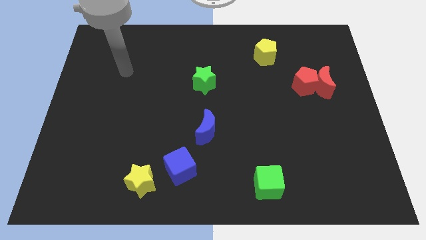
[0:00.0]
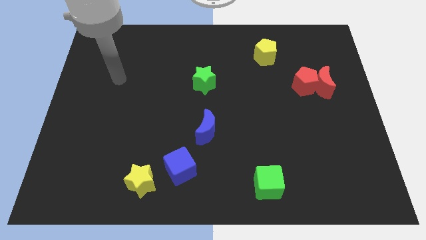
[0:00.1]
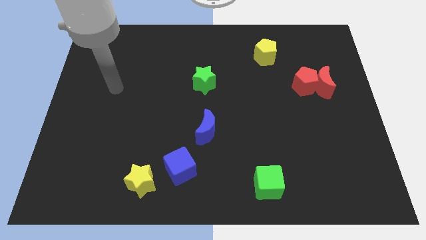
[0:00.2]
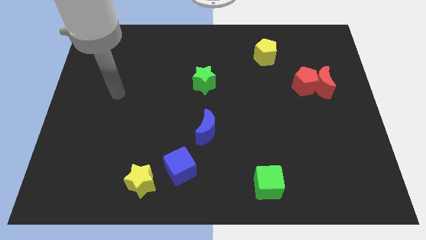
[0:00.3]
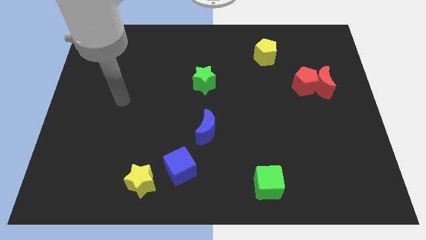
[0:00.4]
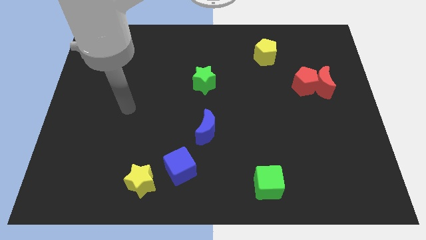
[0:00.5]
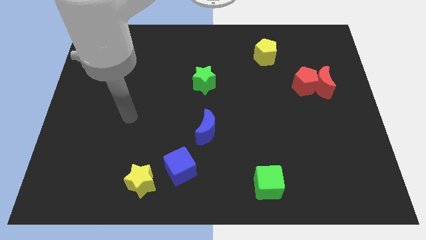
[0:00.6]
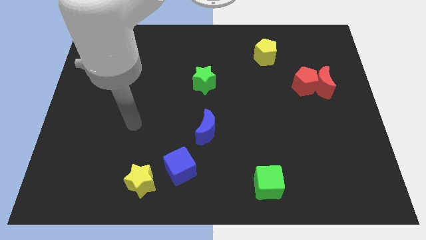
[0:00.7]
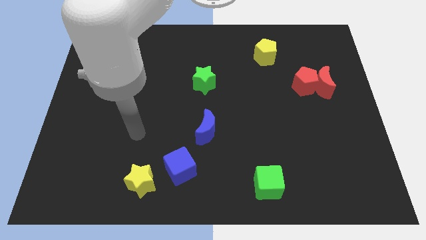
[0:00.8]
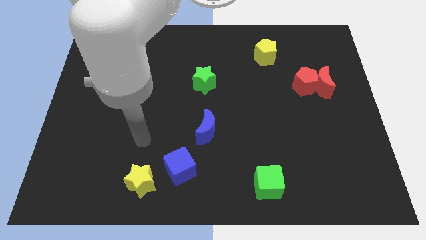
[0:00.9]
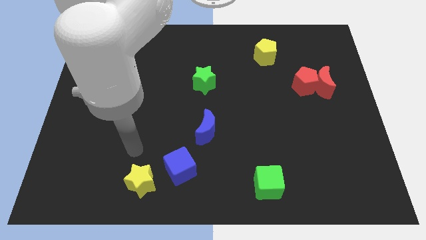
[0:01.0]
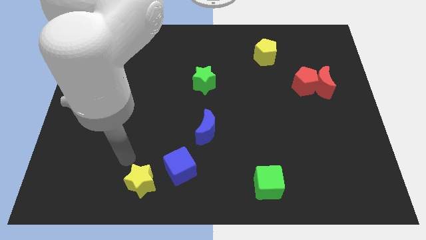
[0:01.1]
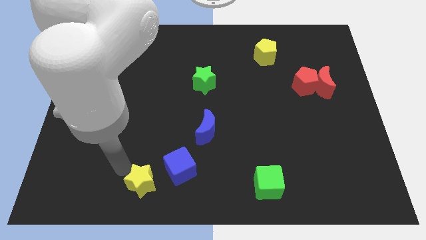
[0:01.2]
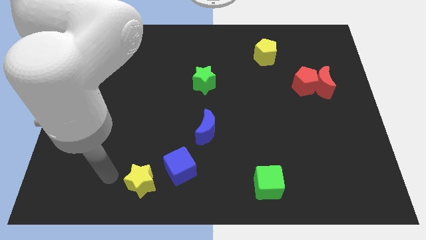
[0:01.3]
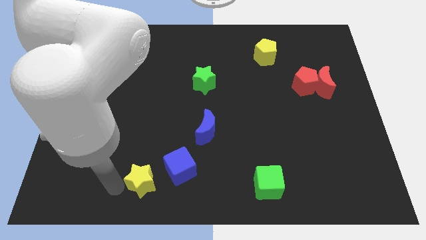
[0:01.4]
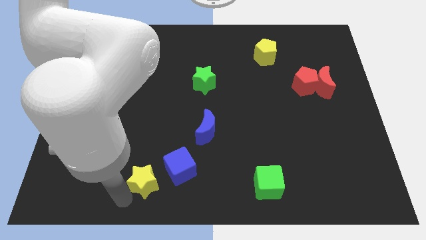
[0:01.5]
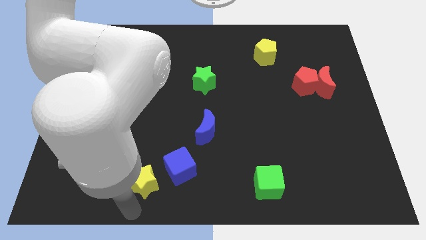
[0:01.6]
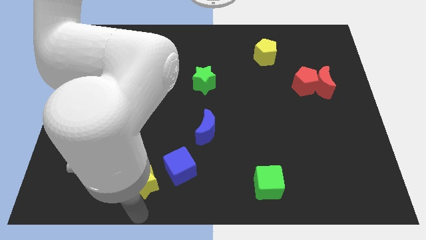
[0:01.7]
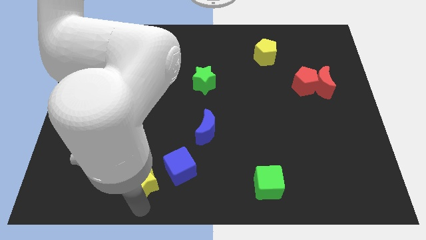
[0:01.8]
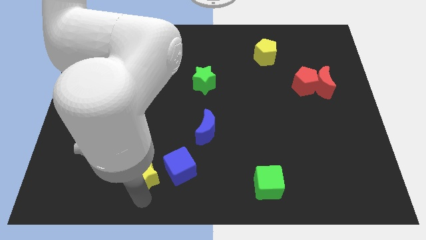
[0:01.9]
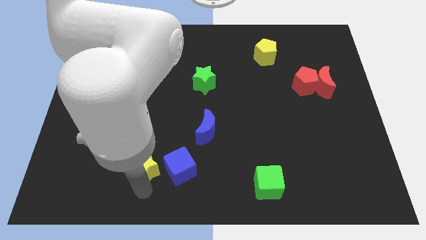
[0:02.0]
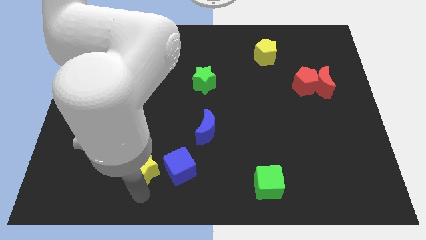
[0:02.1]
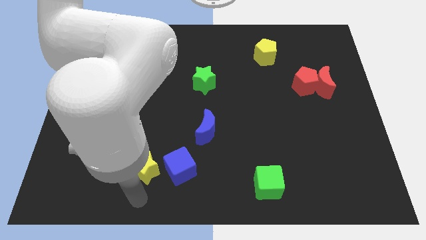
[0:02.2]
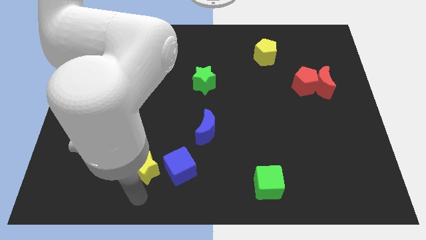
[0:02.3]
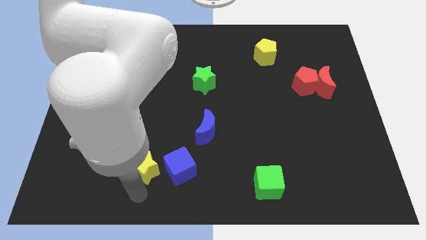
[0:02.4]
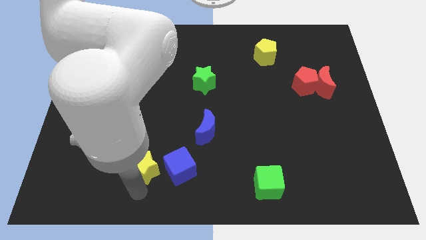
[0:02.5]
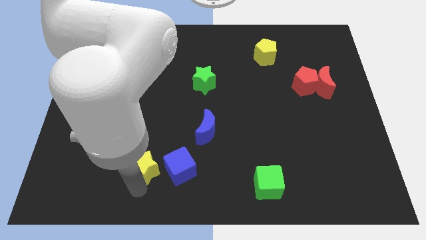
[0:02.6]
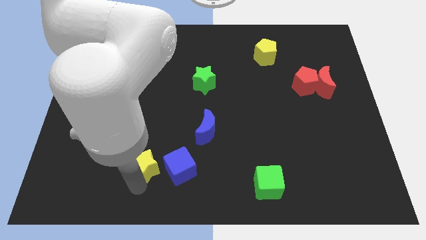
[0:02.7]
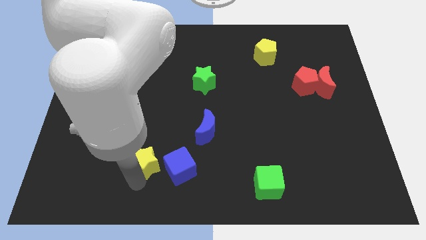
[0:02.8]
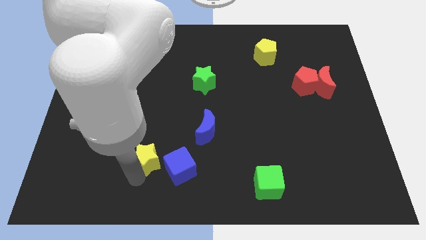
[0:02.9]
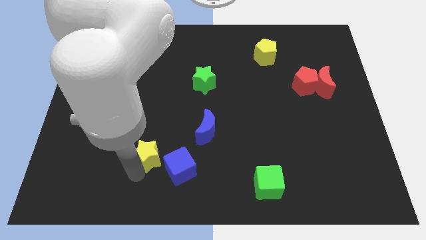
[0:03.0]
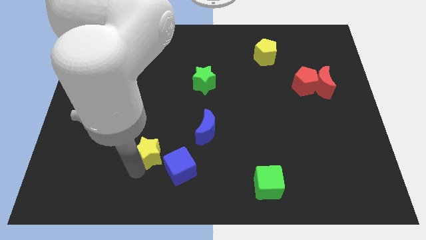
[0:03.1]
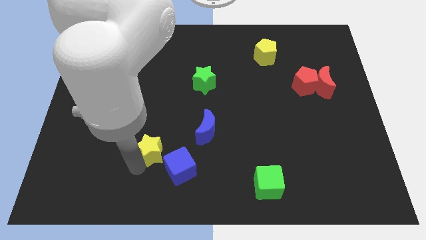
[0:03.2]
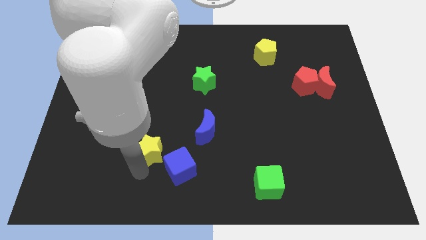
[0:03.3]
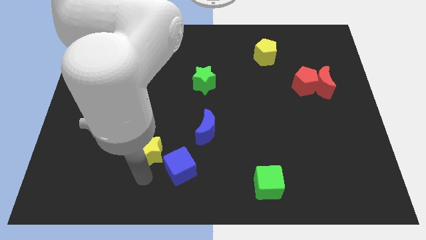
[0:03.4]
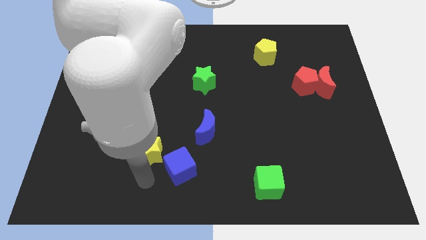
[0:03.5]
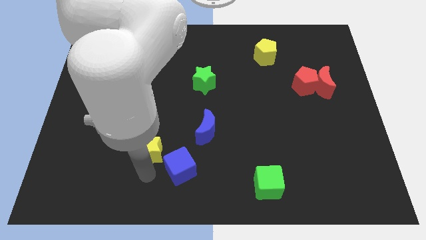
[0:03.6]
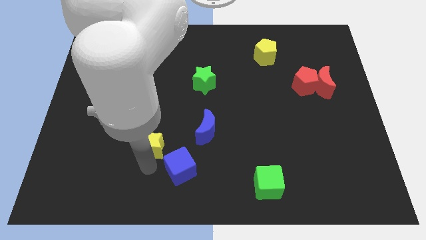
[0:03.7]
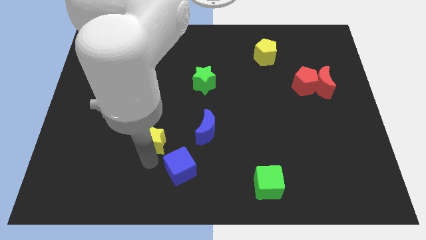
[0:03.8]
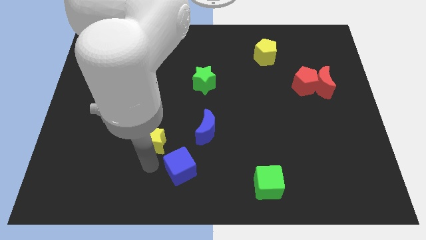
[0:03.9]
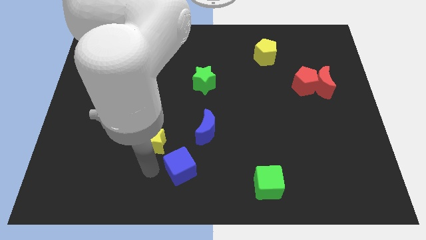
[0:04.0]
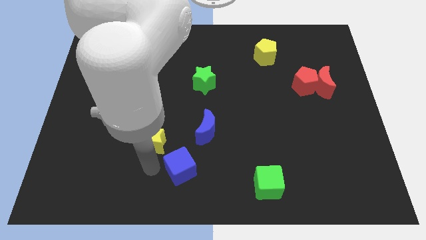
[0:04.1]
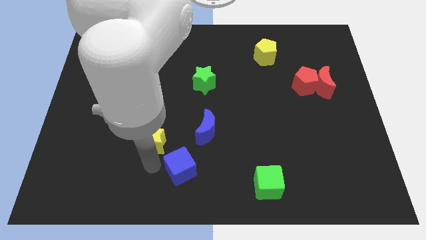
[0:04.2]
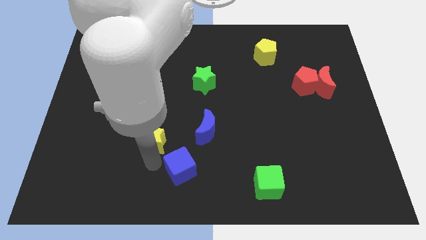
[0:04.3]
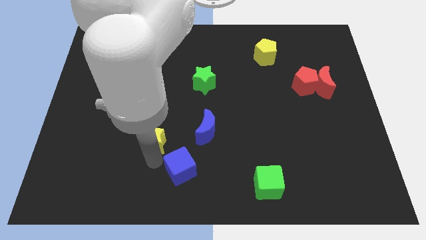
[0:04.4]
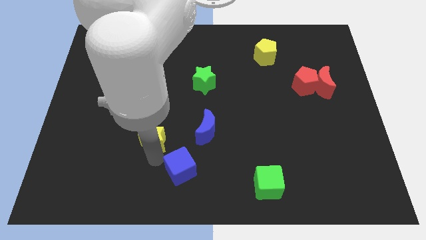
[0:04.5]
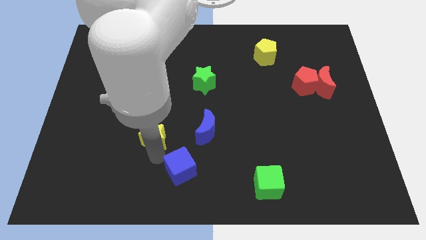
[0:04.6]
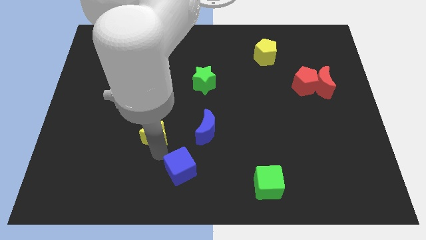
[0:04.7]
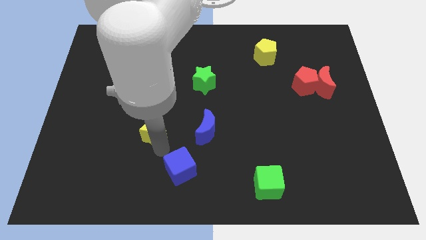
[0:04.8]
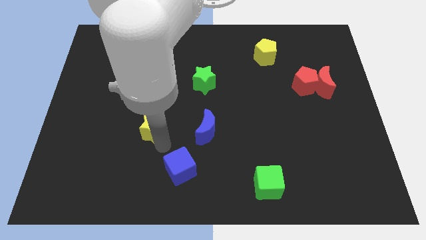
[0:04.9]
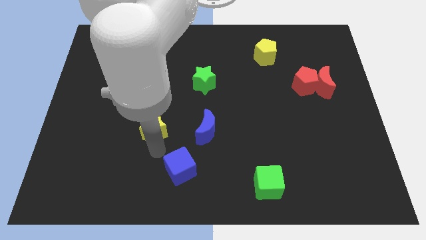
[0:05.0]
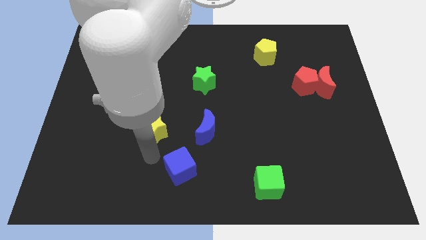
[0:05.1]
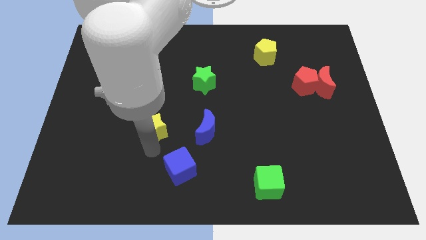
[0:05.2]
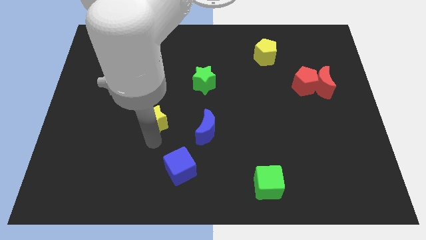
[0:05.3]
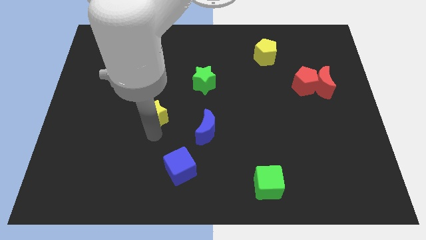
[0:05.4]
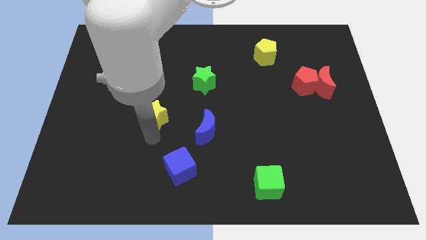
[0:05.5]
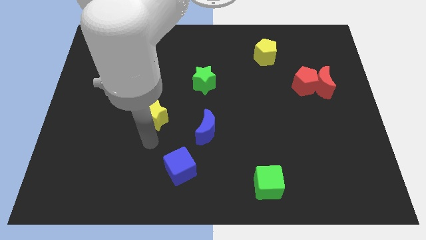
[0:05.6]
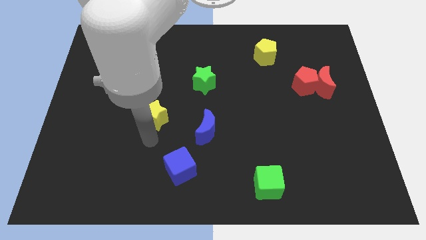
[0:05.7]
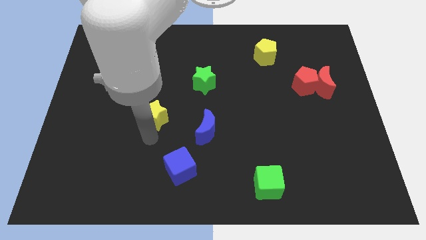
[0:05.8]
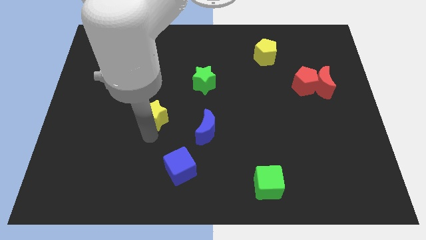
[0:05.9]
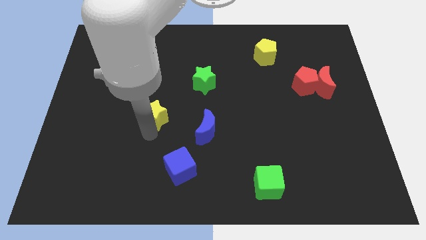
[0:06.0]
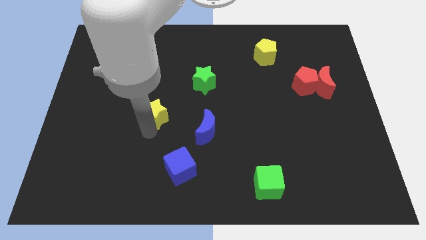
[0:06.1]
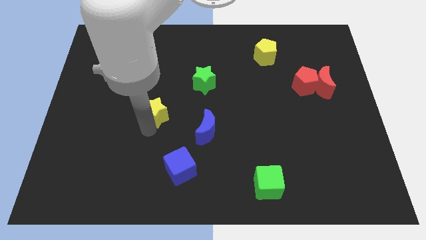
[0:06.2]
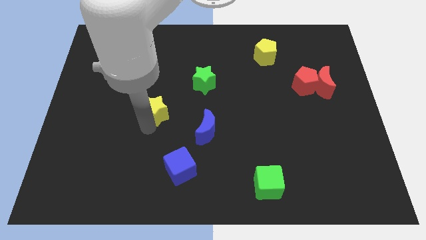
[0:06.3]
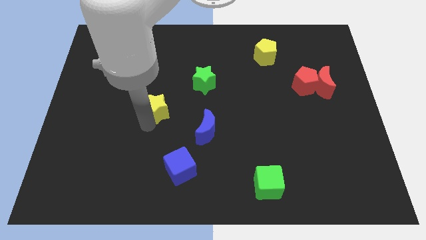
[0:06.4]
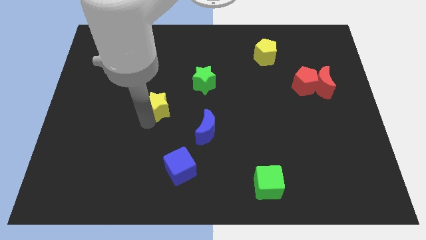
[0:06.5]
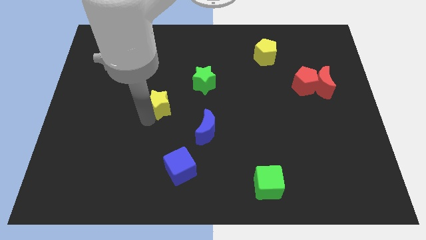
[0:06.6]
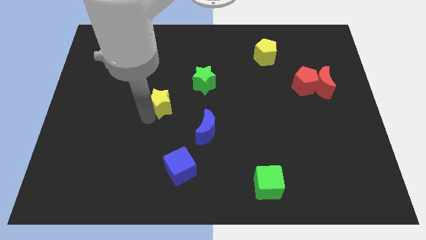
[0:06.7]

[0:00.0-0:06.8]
push the yellow star up

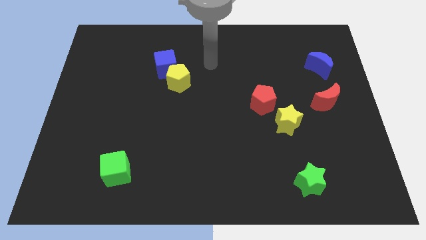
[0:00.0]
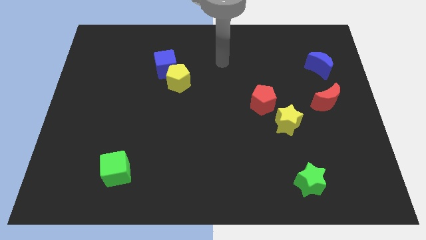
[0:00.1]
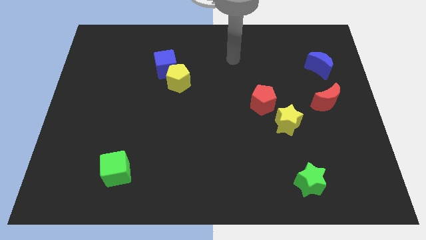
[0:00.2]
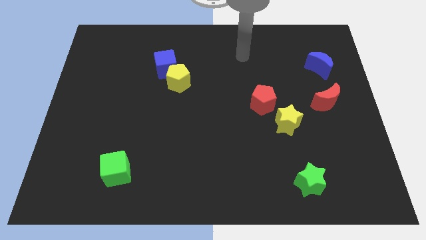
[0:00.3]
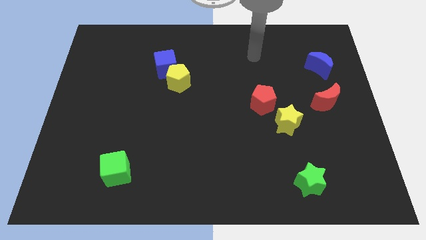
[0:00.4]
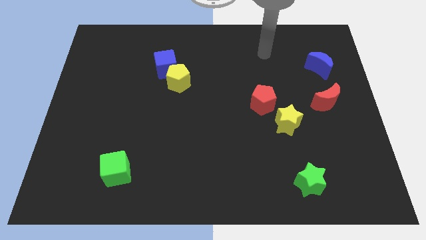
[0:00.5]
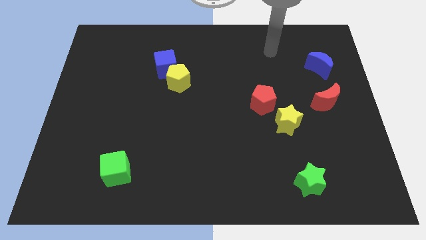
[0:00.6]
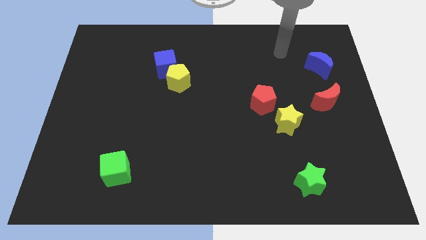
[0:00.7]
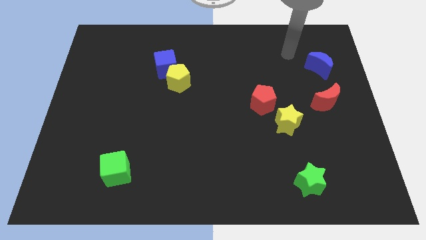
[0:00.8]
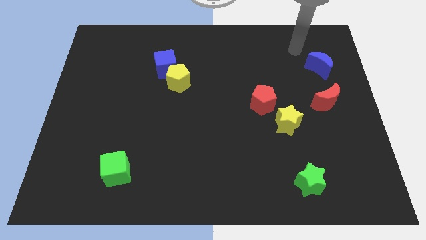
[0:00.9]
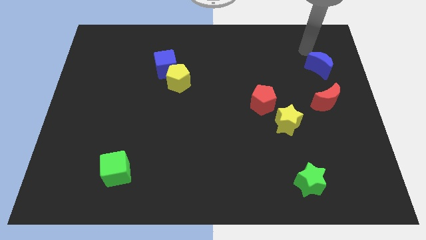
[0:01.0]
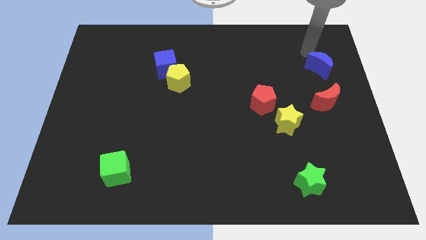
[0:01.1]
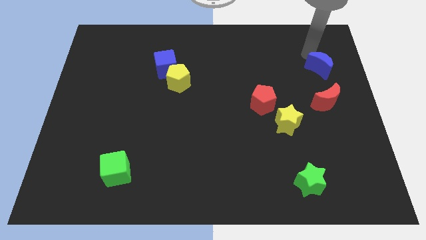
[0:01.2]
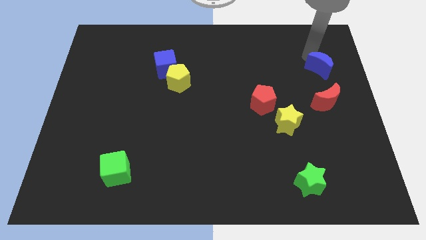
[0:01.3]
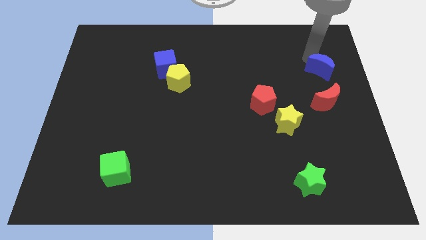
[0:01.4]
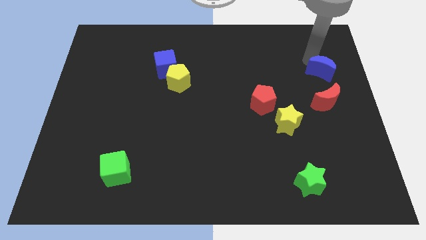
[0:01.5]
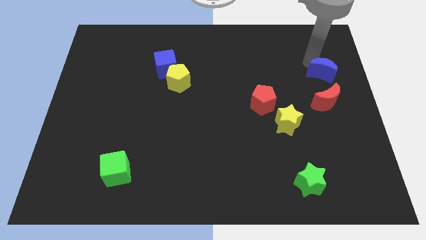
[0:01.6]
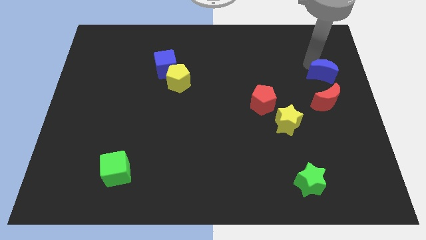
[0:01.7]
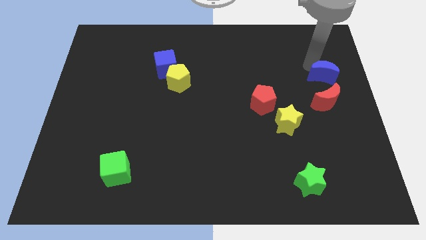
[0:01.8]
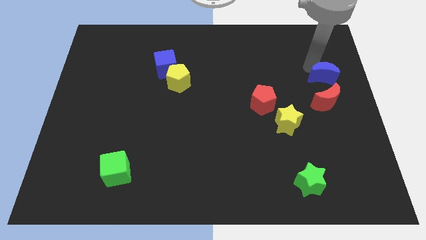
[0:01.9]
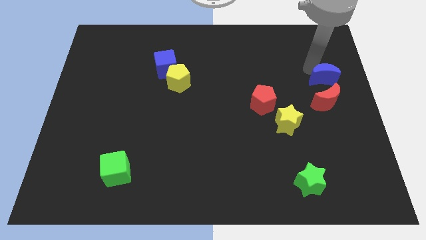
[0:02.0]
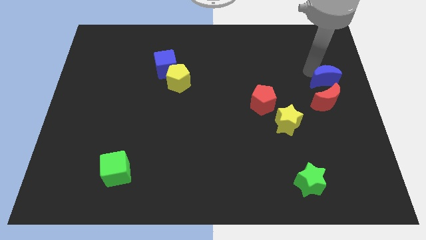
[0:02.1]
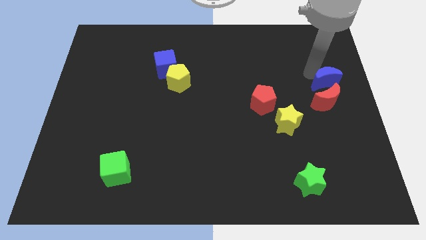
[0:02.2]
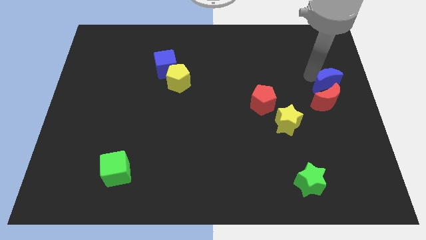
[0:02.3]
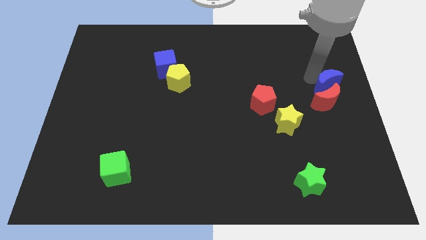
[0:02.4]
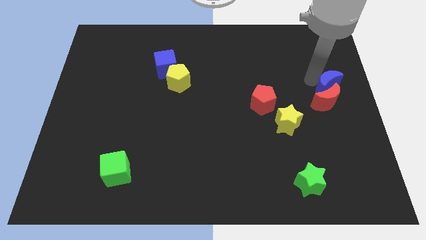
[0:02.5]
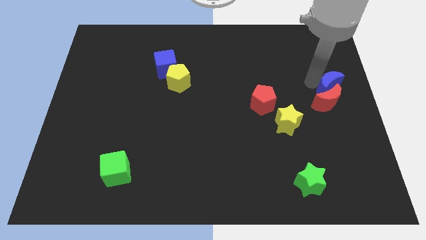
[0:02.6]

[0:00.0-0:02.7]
slightly push the blue moon downwards
